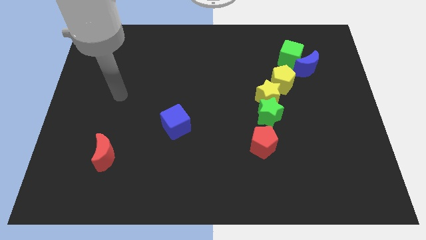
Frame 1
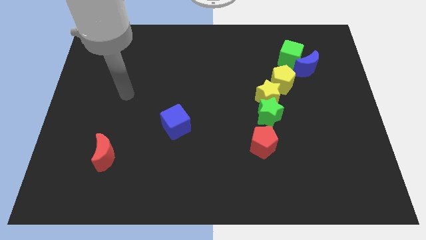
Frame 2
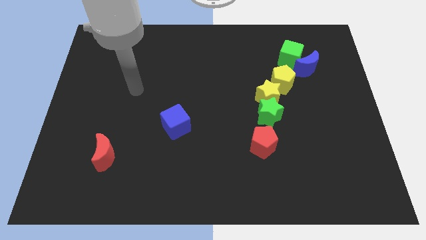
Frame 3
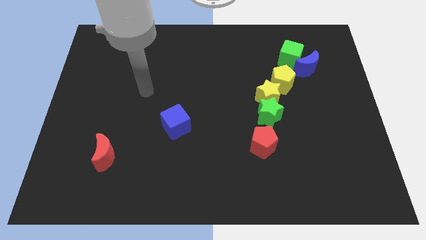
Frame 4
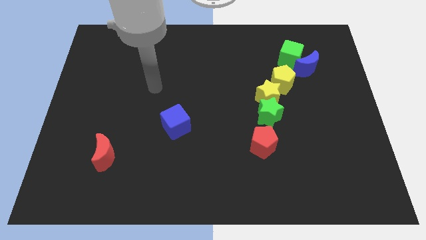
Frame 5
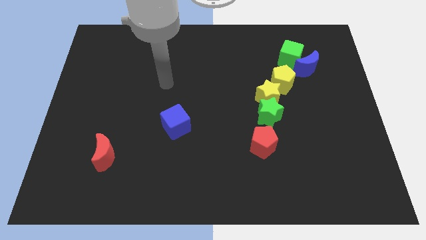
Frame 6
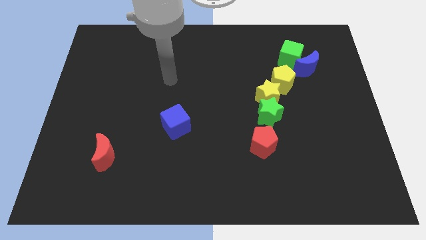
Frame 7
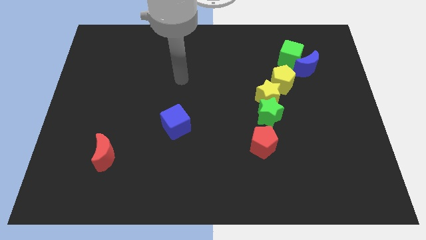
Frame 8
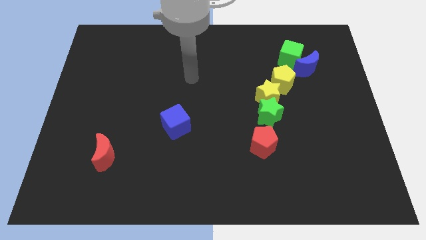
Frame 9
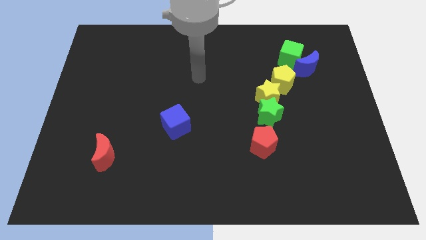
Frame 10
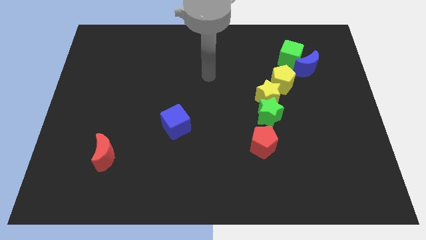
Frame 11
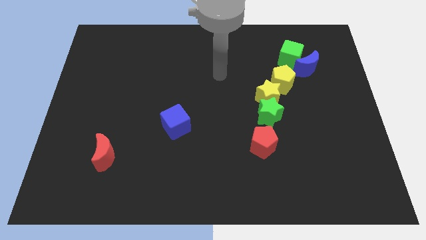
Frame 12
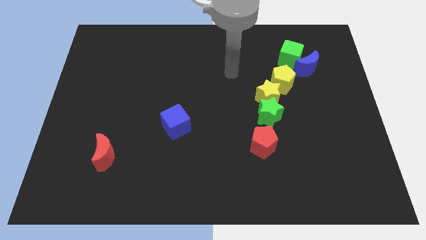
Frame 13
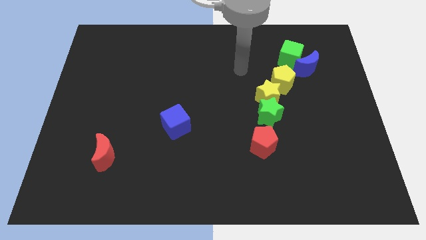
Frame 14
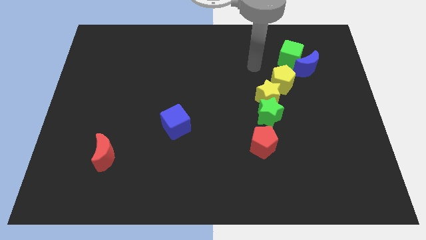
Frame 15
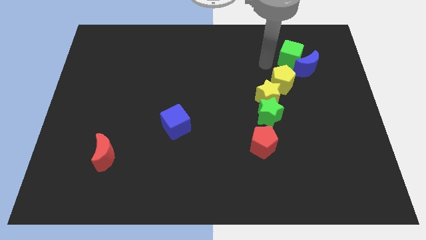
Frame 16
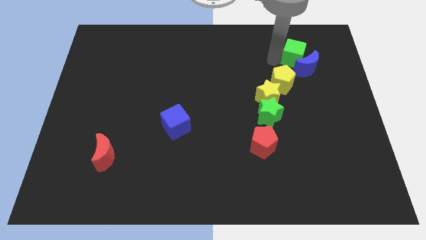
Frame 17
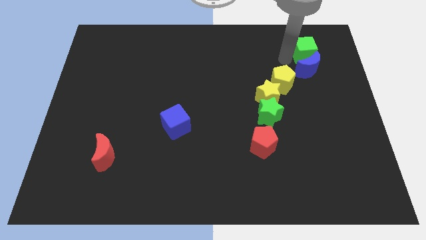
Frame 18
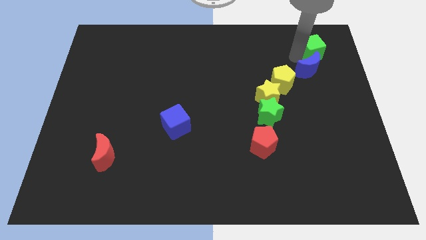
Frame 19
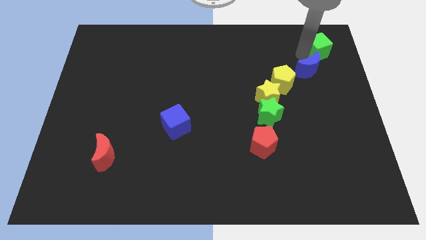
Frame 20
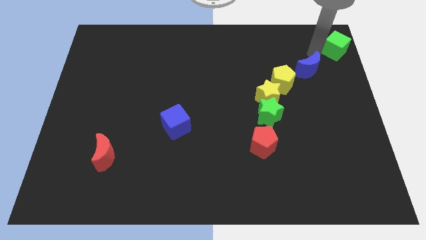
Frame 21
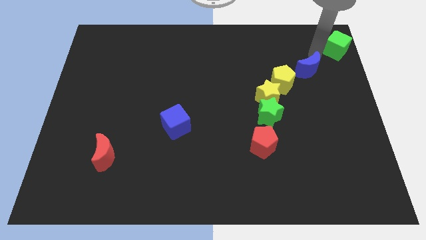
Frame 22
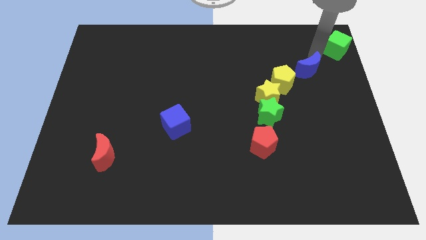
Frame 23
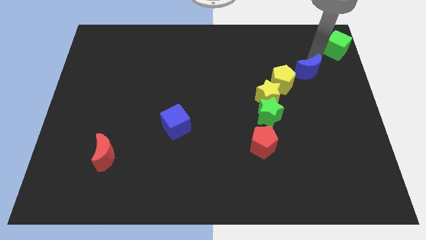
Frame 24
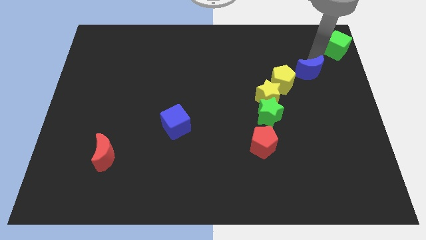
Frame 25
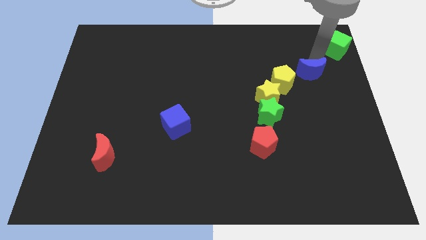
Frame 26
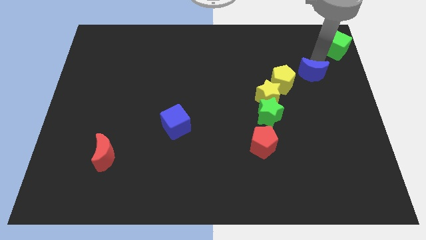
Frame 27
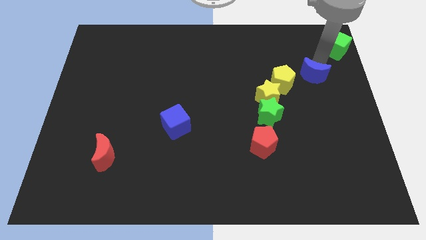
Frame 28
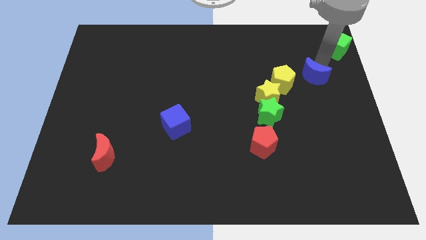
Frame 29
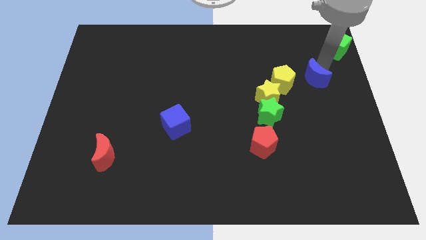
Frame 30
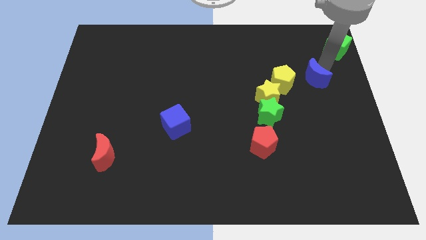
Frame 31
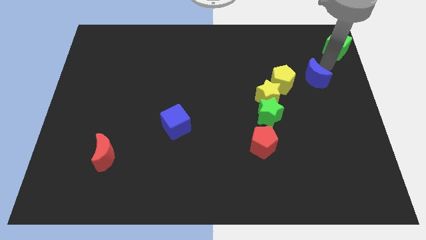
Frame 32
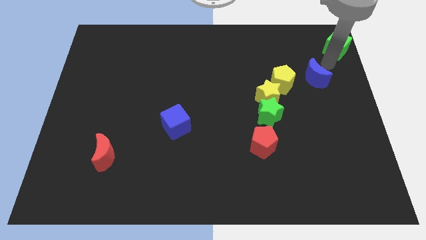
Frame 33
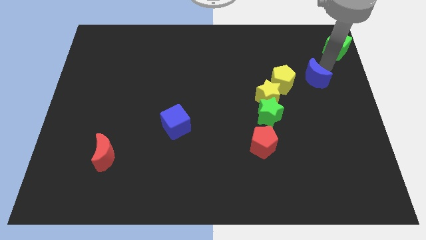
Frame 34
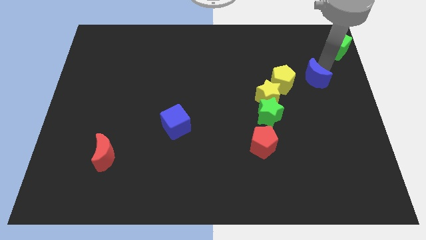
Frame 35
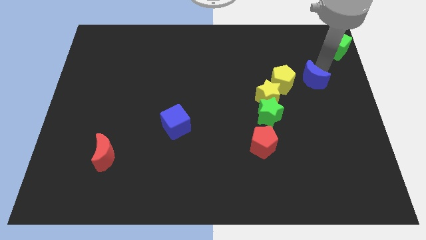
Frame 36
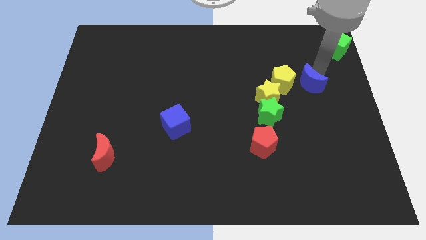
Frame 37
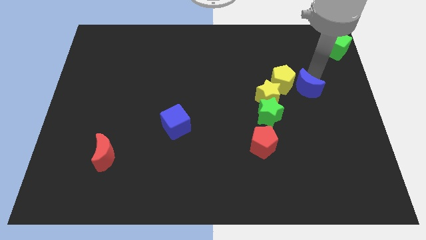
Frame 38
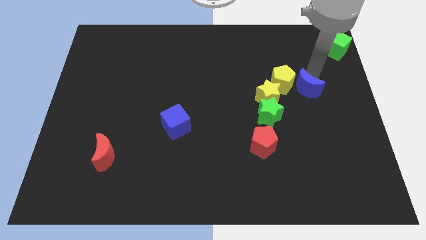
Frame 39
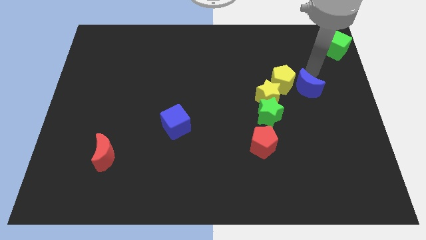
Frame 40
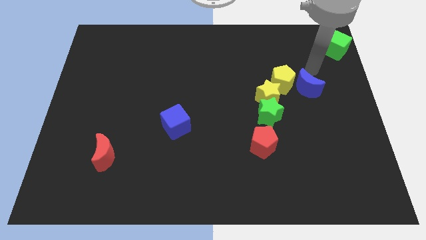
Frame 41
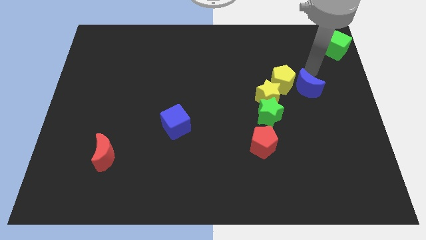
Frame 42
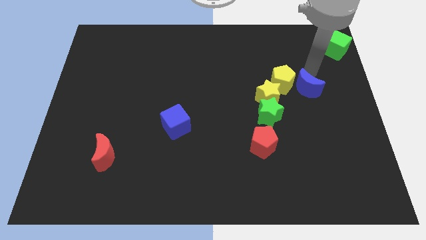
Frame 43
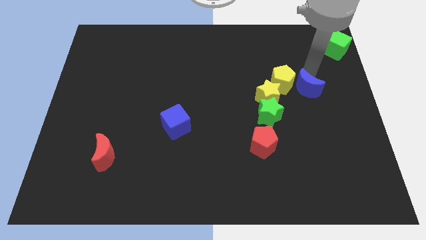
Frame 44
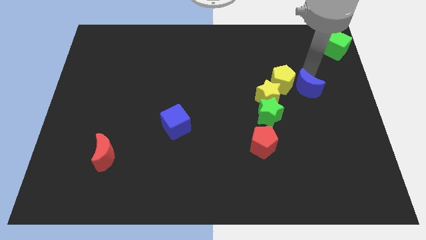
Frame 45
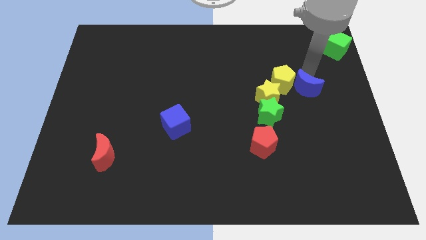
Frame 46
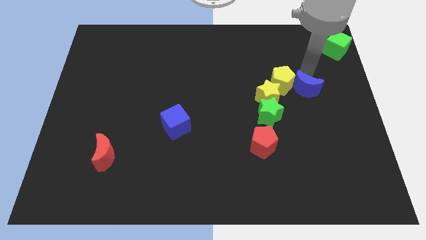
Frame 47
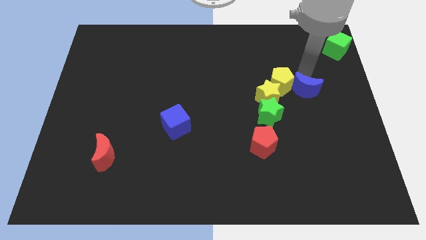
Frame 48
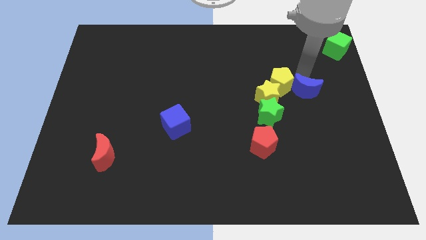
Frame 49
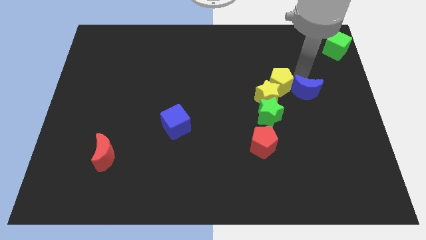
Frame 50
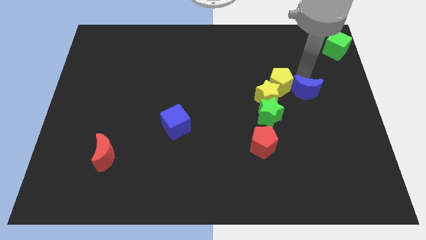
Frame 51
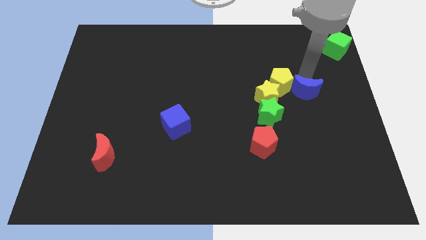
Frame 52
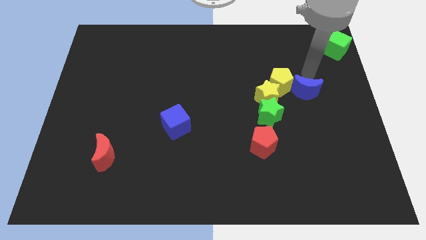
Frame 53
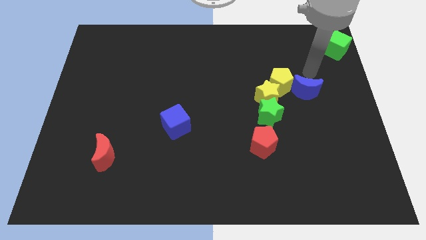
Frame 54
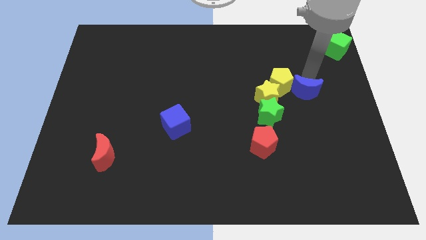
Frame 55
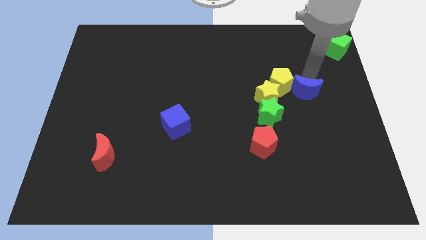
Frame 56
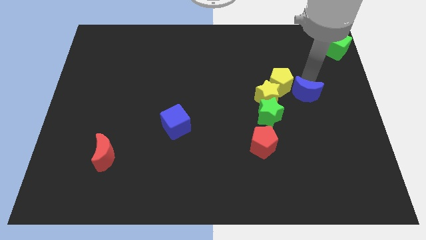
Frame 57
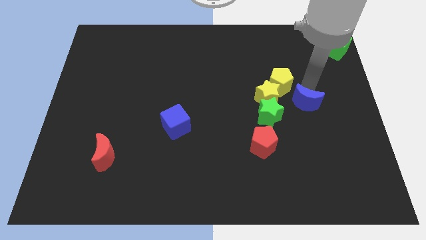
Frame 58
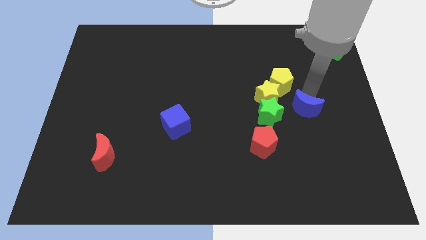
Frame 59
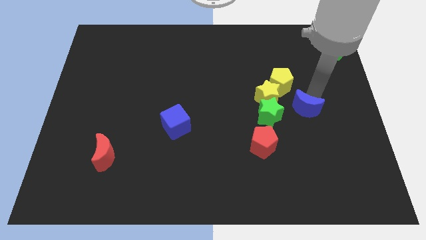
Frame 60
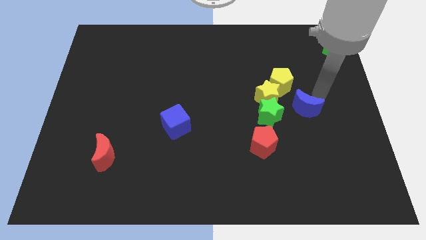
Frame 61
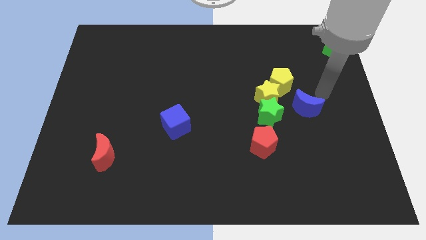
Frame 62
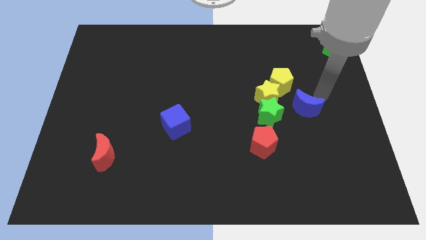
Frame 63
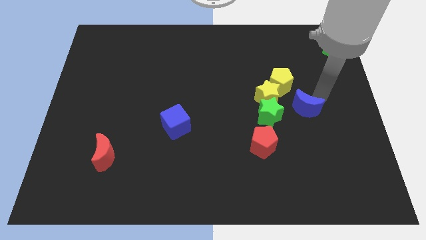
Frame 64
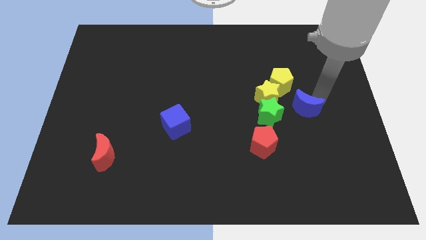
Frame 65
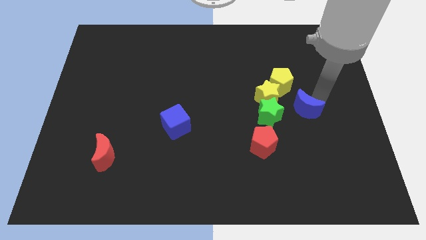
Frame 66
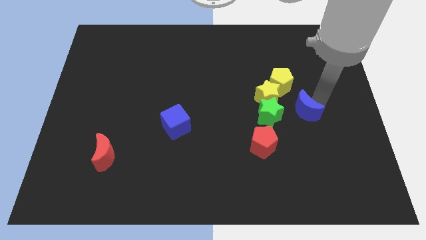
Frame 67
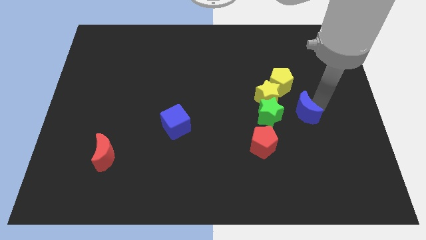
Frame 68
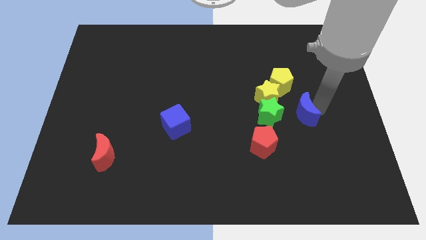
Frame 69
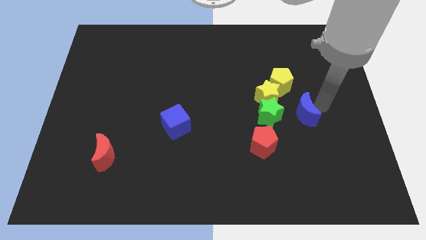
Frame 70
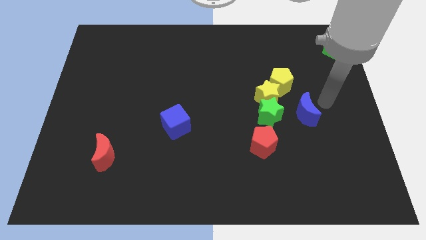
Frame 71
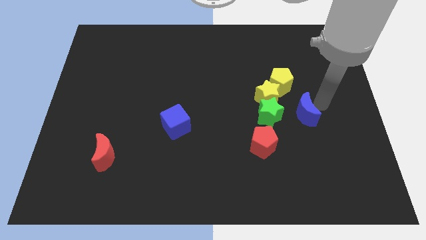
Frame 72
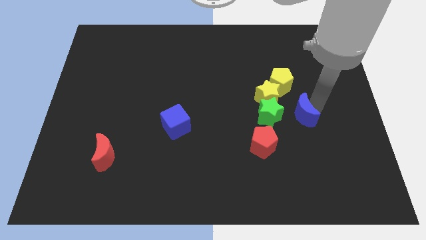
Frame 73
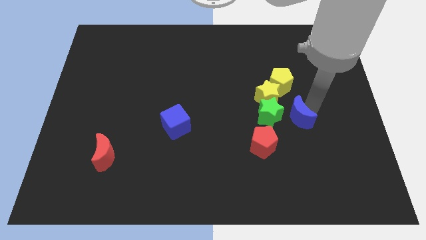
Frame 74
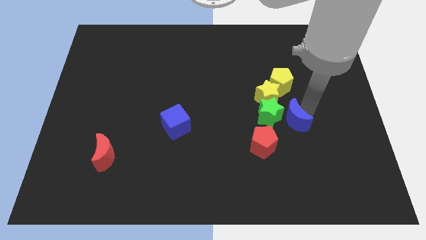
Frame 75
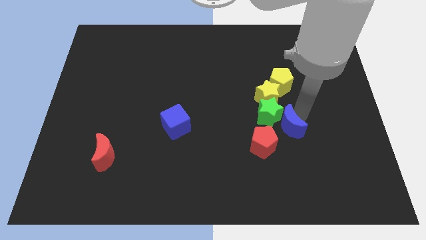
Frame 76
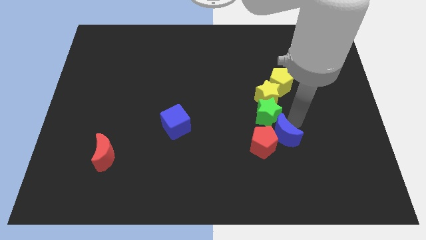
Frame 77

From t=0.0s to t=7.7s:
put the blue moon next to the red pentagon
